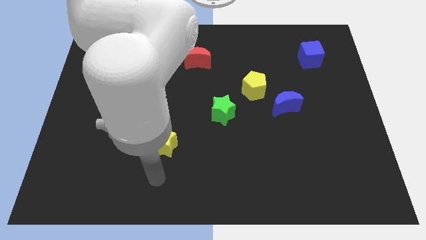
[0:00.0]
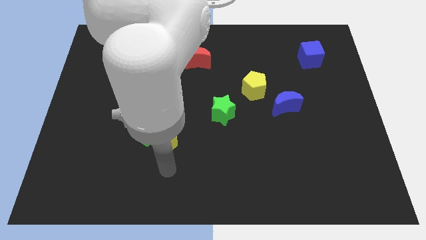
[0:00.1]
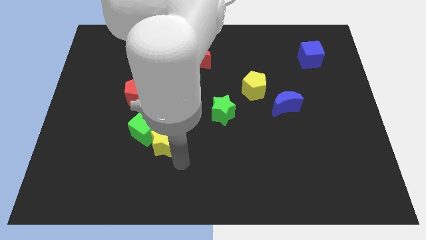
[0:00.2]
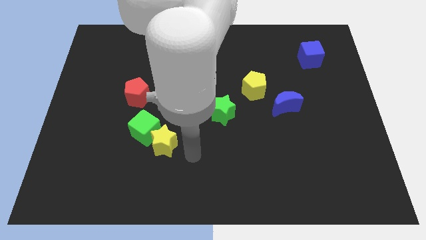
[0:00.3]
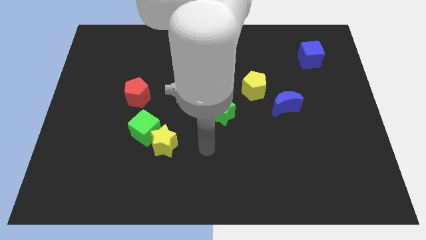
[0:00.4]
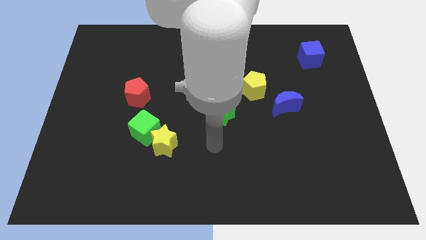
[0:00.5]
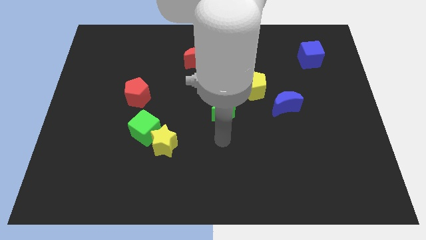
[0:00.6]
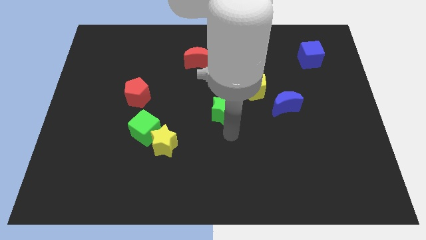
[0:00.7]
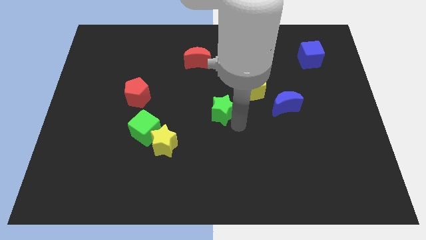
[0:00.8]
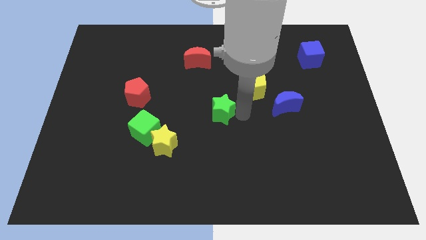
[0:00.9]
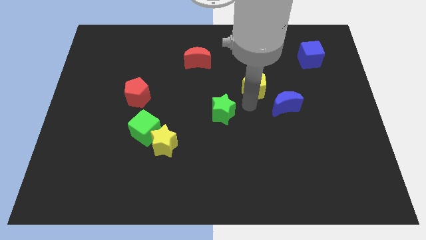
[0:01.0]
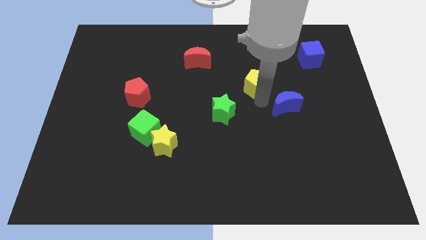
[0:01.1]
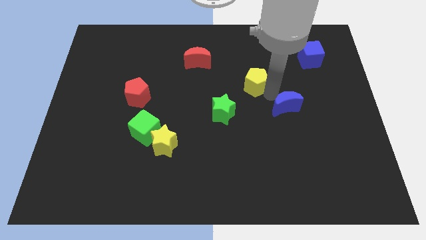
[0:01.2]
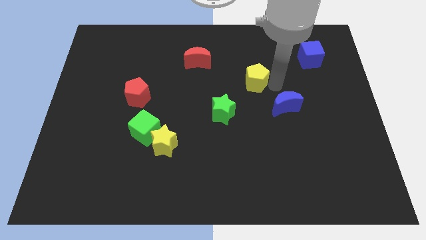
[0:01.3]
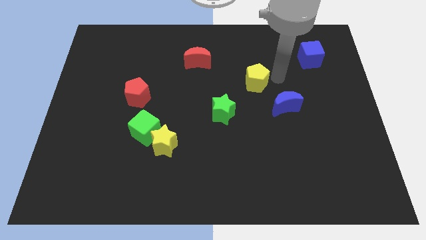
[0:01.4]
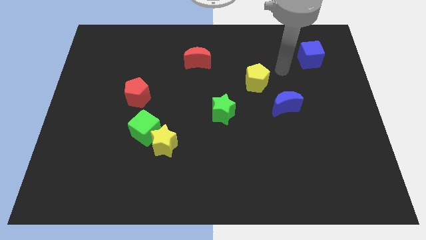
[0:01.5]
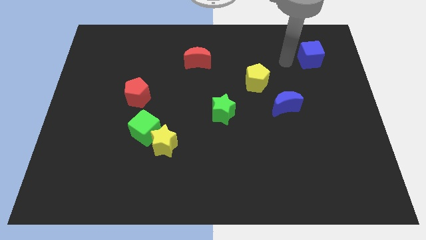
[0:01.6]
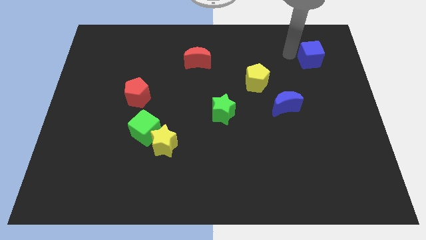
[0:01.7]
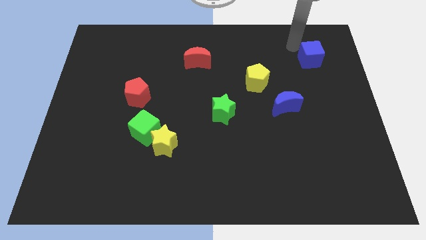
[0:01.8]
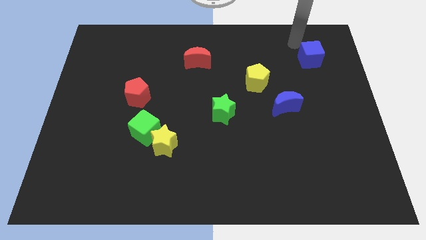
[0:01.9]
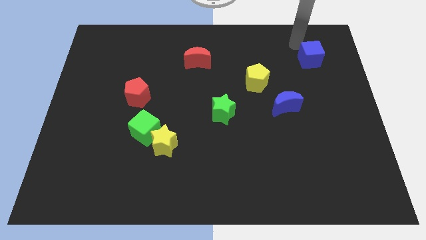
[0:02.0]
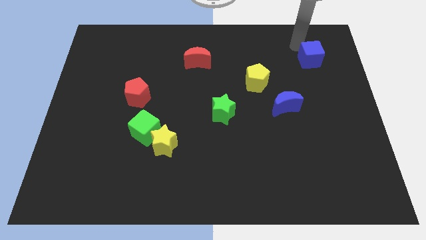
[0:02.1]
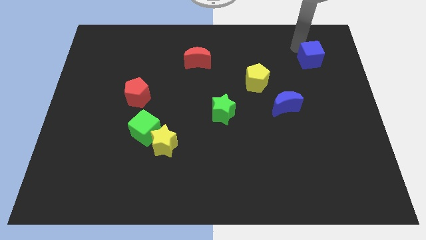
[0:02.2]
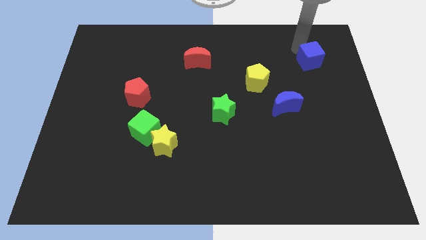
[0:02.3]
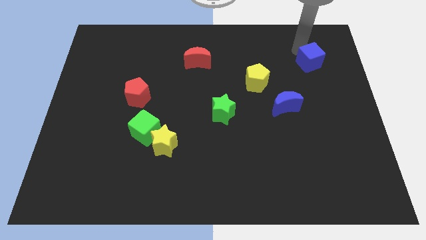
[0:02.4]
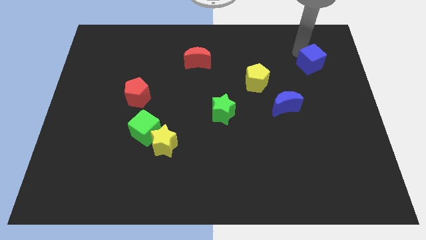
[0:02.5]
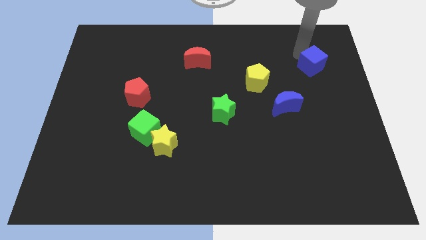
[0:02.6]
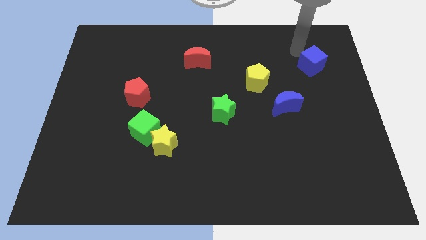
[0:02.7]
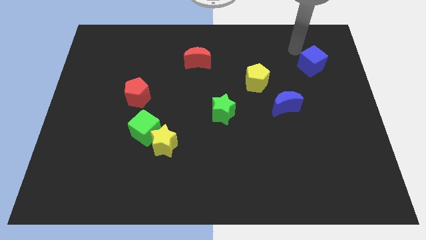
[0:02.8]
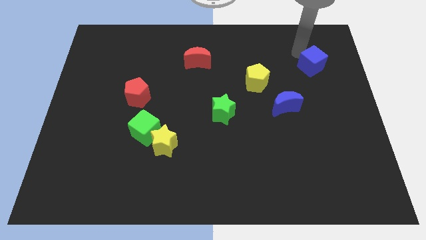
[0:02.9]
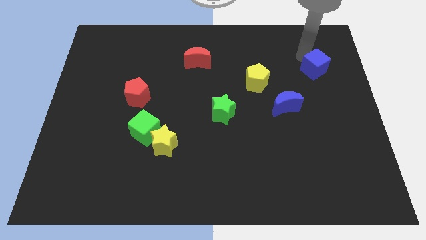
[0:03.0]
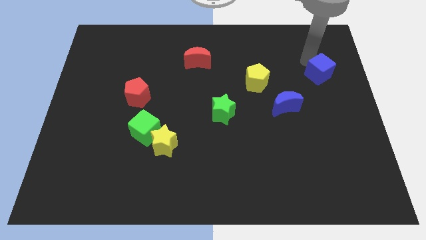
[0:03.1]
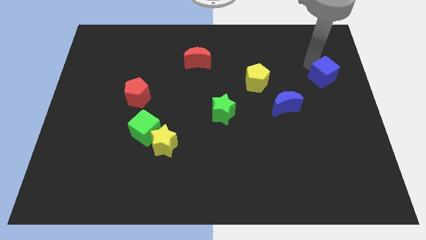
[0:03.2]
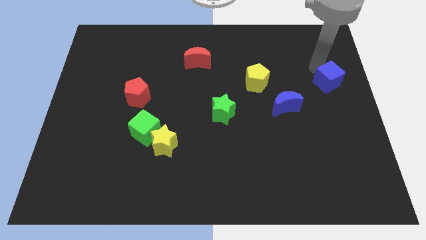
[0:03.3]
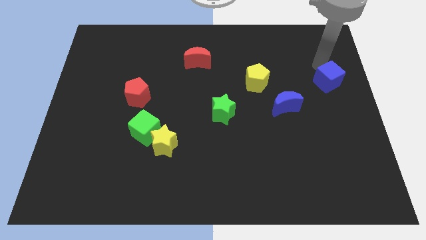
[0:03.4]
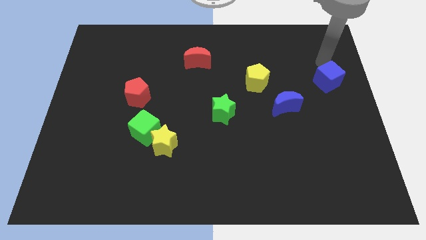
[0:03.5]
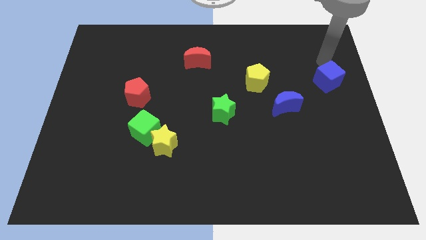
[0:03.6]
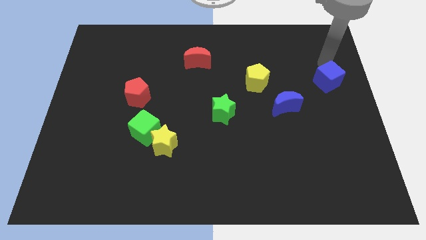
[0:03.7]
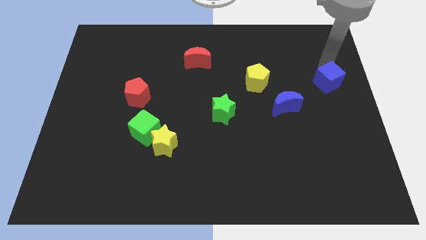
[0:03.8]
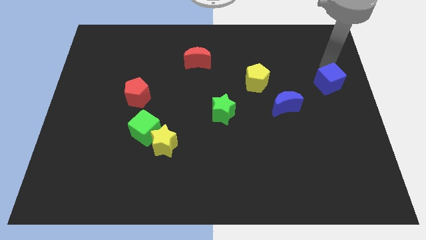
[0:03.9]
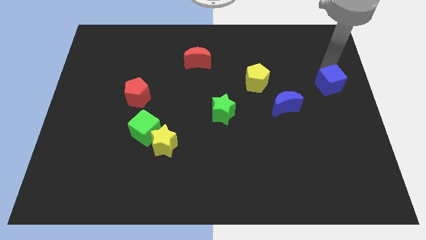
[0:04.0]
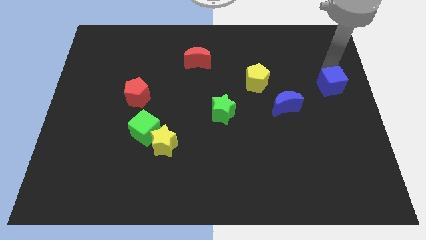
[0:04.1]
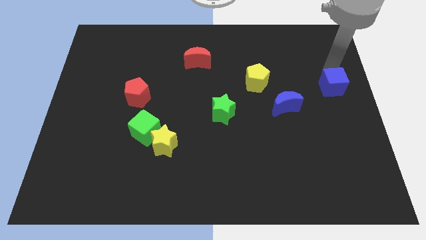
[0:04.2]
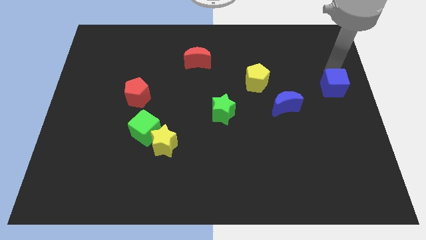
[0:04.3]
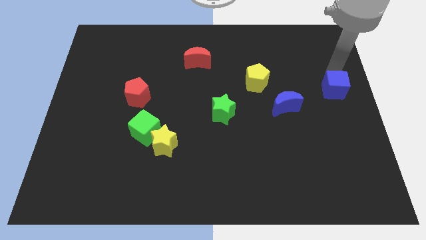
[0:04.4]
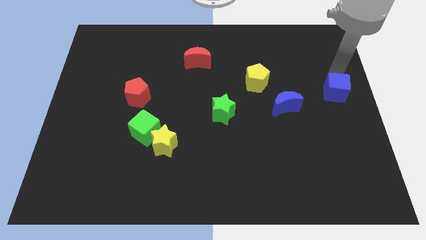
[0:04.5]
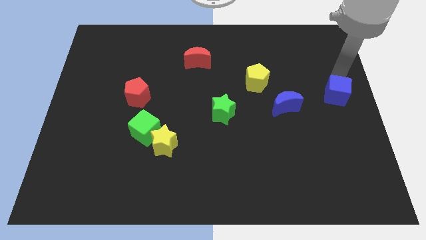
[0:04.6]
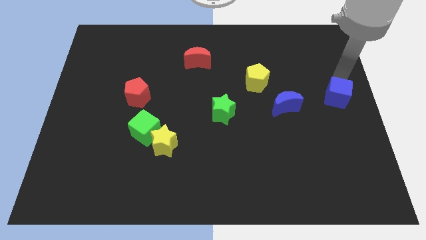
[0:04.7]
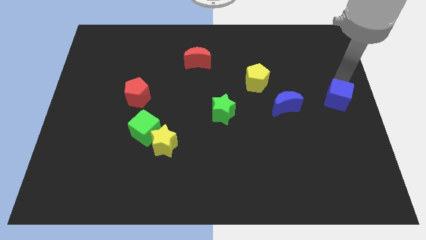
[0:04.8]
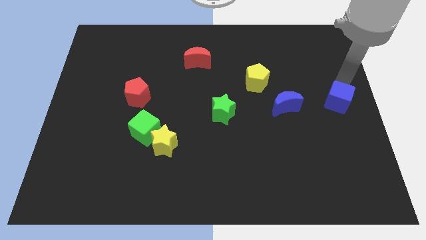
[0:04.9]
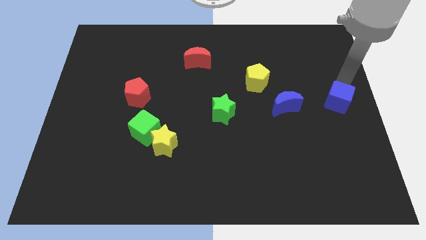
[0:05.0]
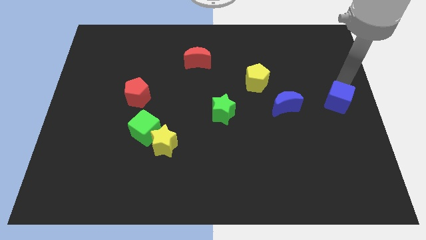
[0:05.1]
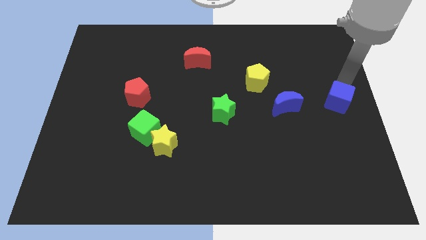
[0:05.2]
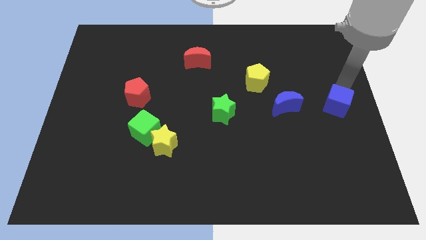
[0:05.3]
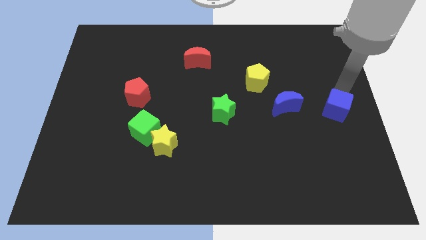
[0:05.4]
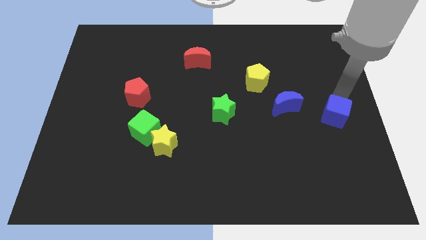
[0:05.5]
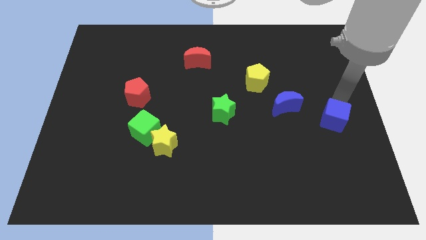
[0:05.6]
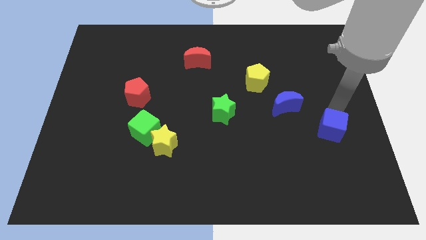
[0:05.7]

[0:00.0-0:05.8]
slide the blue cube downwards

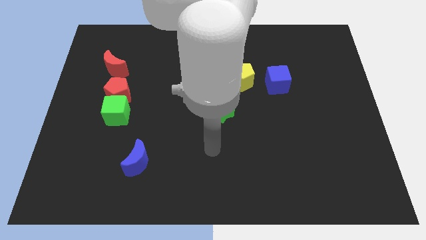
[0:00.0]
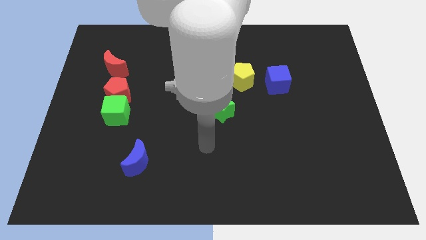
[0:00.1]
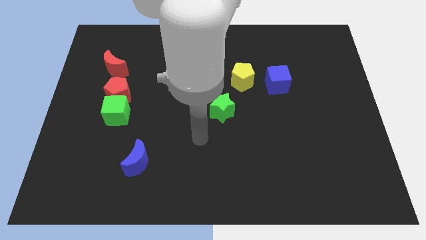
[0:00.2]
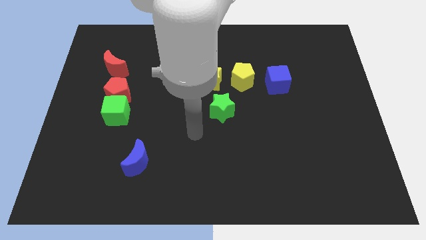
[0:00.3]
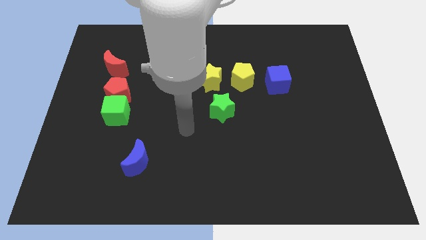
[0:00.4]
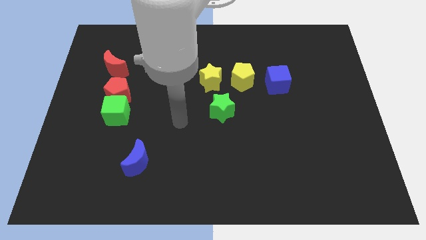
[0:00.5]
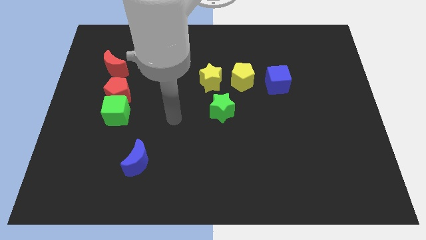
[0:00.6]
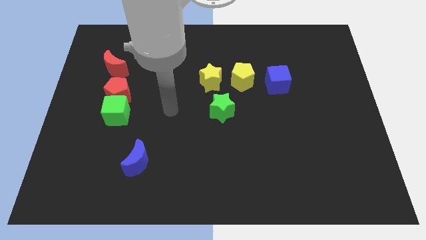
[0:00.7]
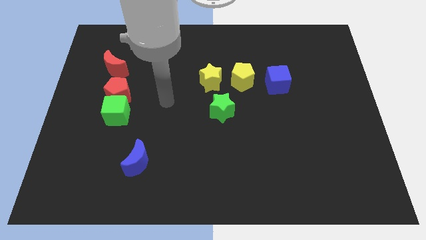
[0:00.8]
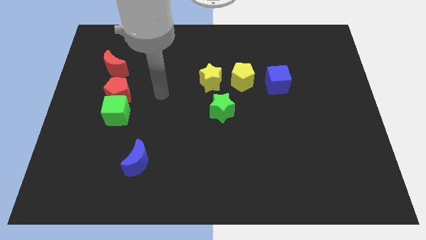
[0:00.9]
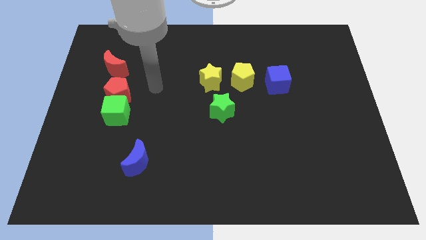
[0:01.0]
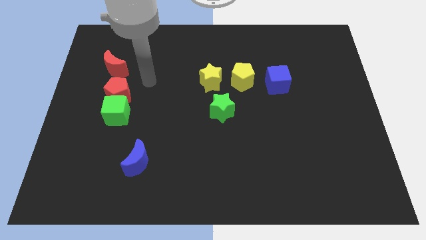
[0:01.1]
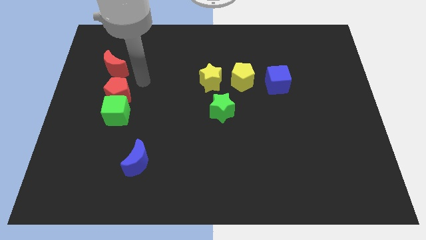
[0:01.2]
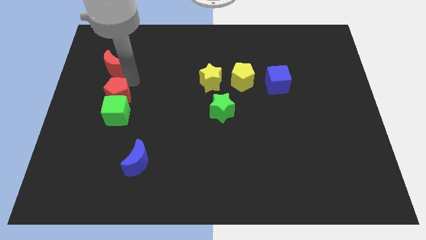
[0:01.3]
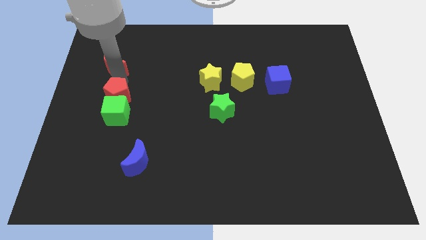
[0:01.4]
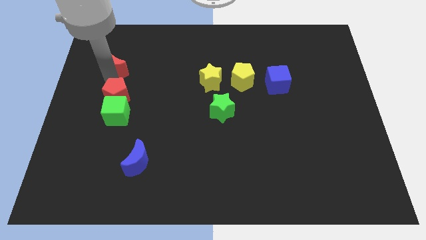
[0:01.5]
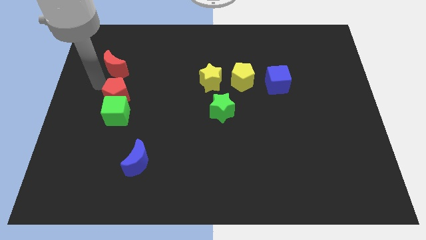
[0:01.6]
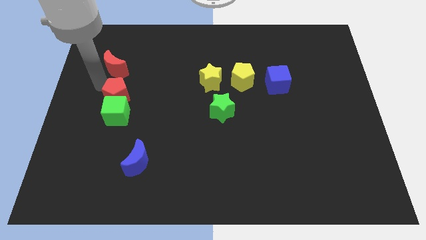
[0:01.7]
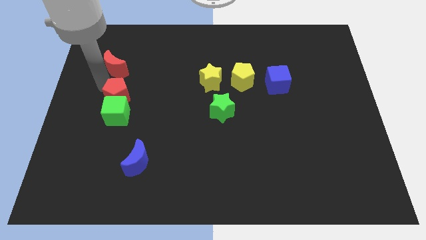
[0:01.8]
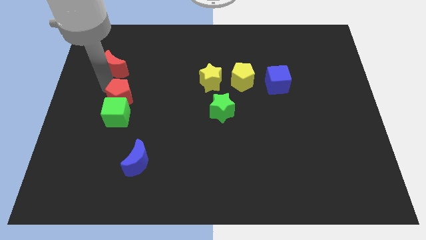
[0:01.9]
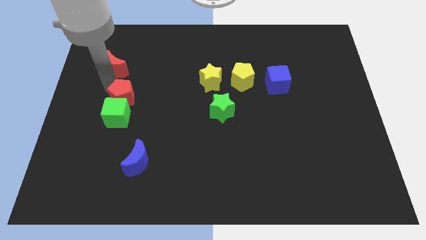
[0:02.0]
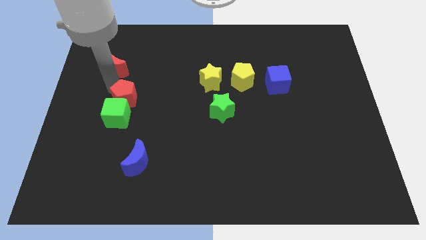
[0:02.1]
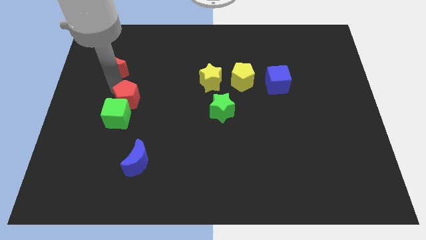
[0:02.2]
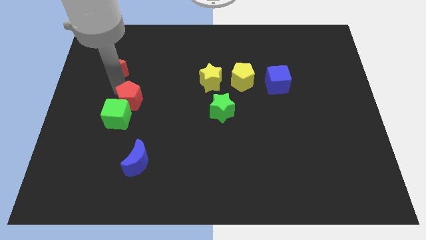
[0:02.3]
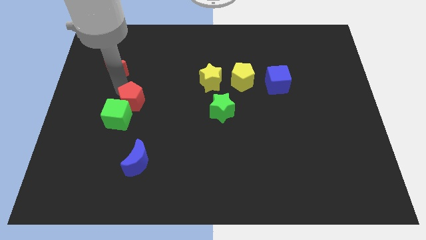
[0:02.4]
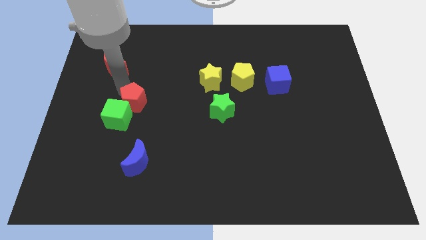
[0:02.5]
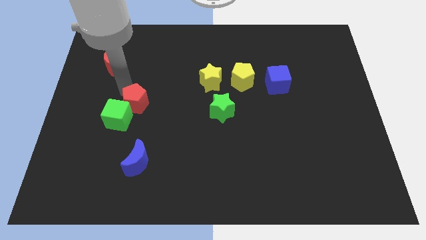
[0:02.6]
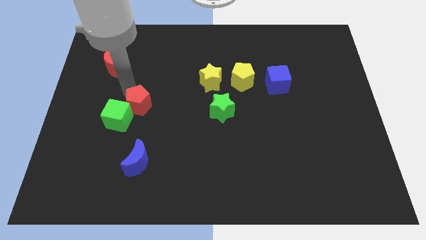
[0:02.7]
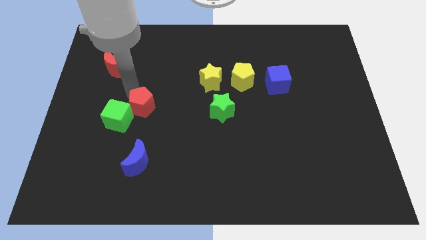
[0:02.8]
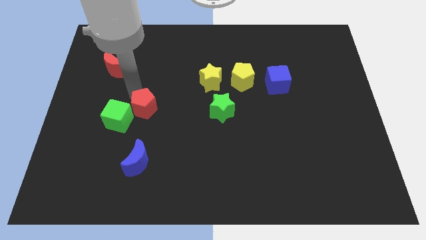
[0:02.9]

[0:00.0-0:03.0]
slide the red pentagon a little down and to the right
